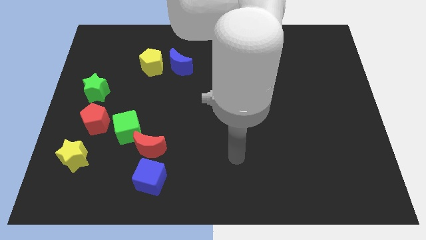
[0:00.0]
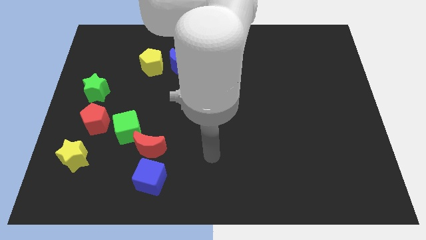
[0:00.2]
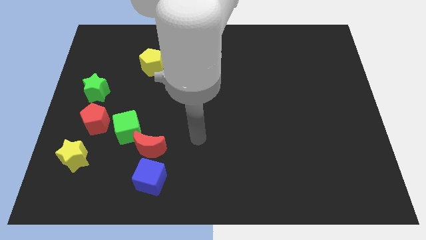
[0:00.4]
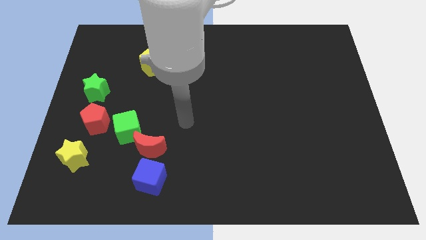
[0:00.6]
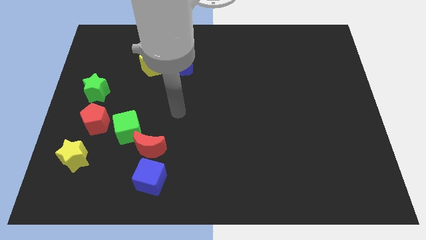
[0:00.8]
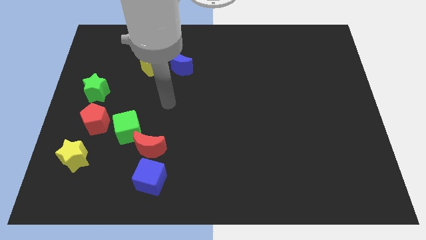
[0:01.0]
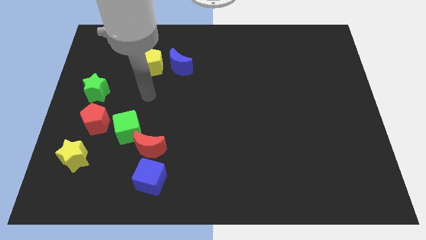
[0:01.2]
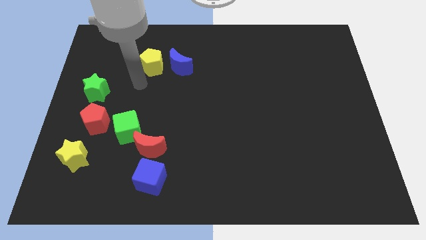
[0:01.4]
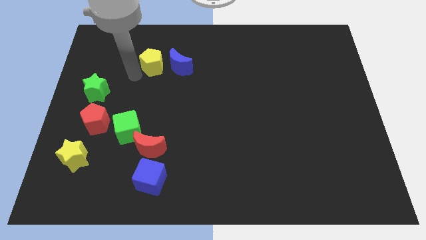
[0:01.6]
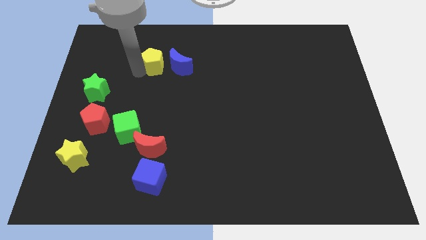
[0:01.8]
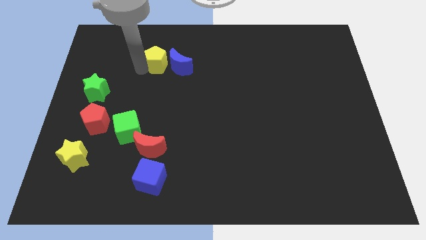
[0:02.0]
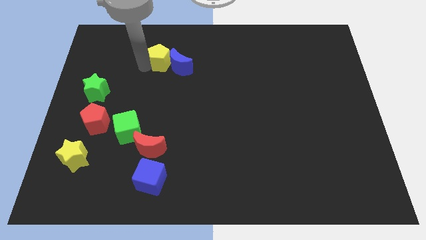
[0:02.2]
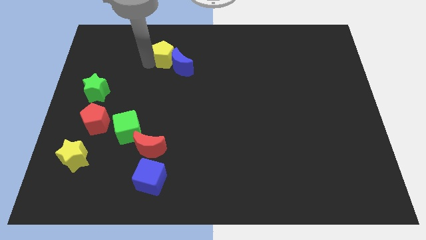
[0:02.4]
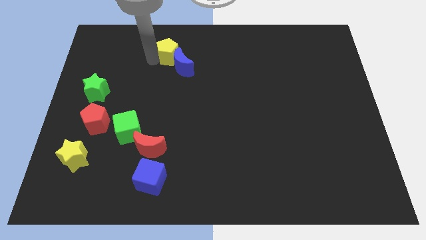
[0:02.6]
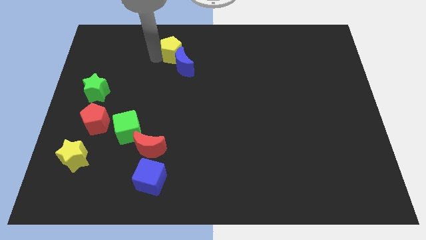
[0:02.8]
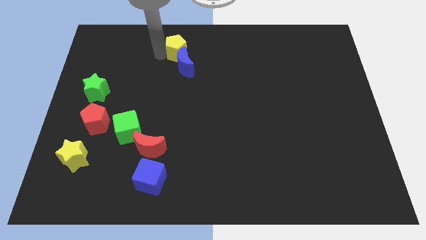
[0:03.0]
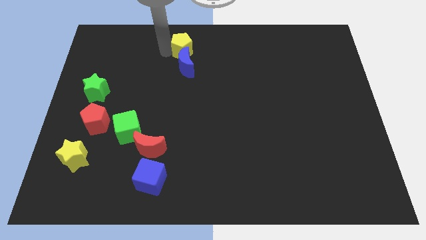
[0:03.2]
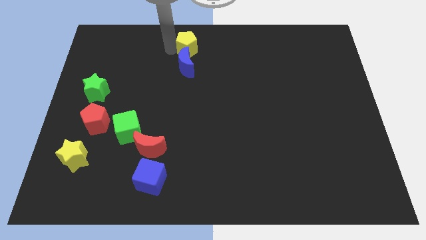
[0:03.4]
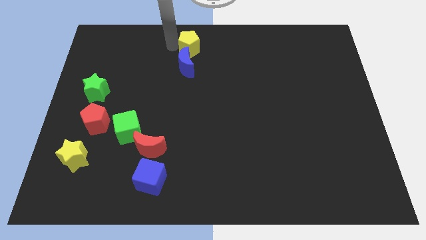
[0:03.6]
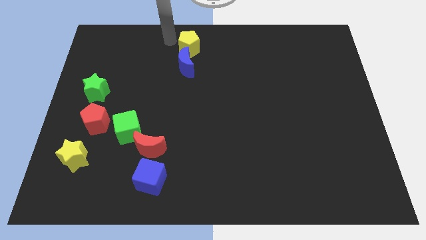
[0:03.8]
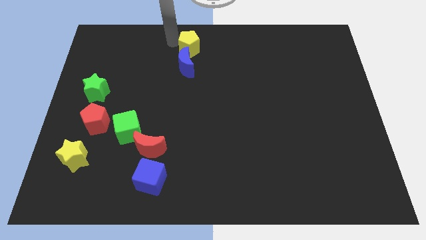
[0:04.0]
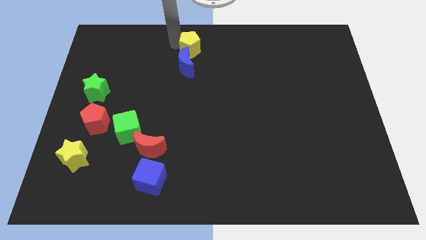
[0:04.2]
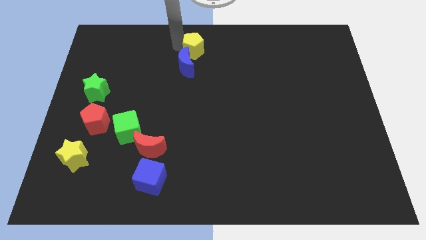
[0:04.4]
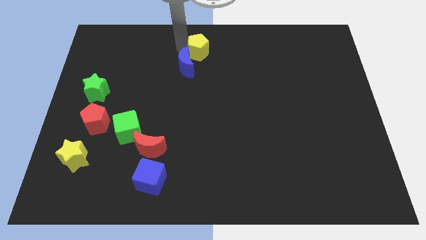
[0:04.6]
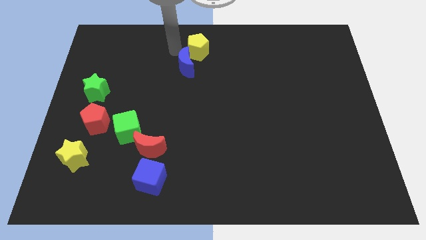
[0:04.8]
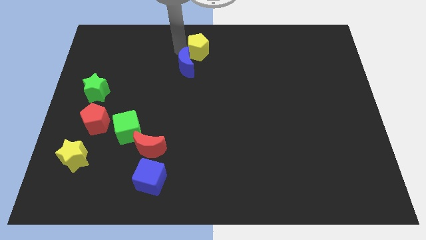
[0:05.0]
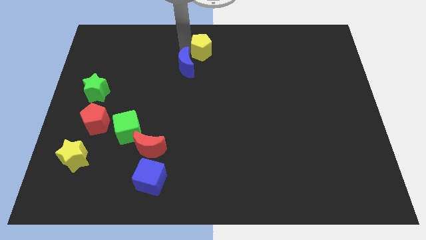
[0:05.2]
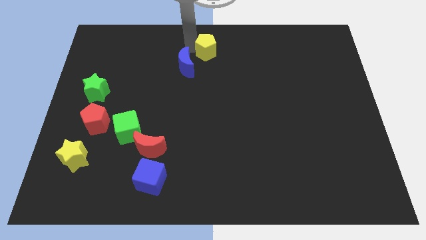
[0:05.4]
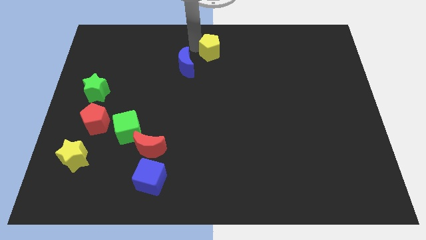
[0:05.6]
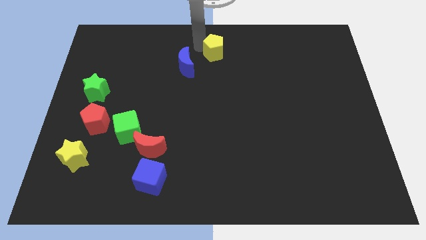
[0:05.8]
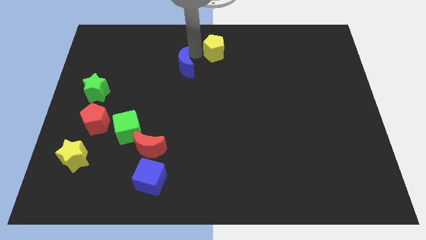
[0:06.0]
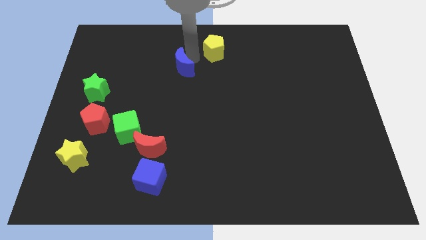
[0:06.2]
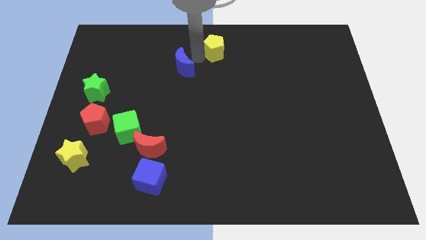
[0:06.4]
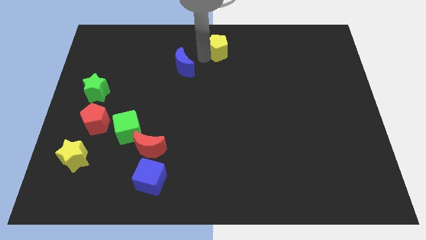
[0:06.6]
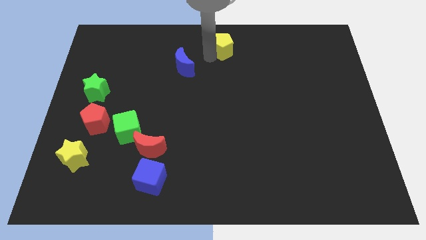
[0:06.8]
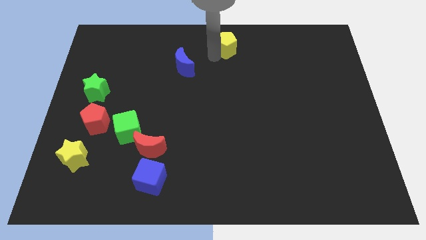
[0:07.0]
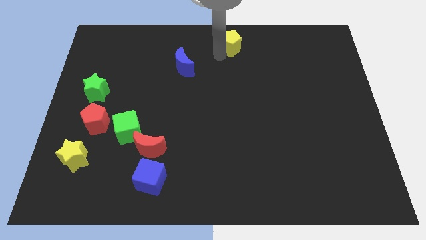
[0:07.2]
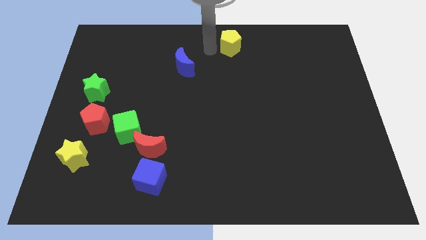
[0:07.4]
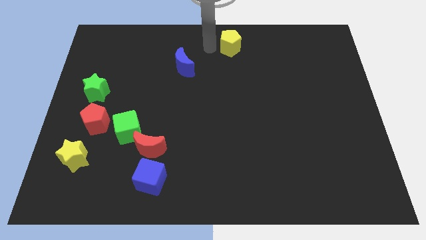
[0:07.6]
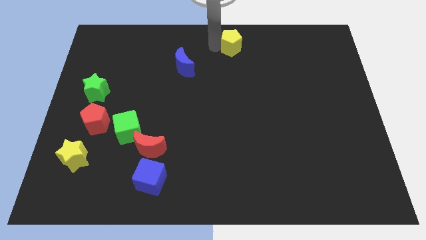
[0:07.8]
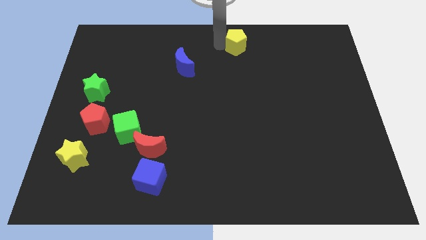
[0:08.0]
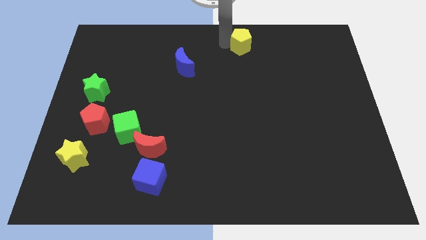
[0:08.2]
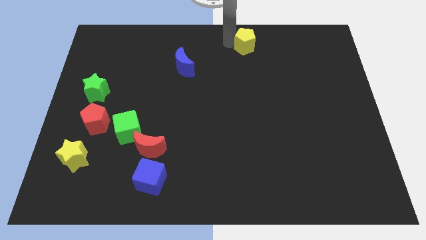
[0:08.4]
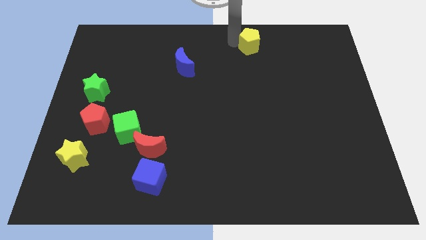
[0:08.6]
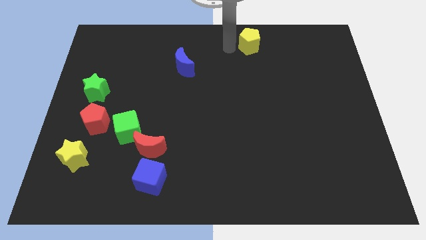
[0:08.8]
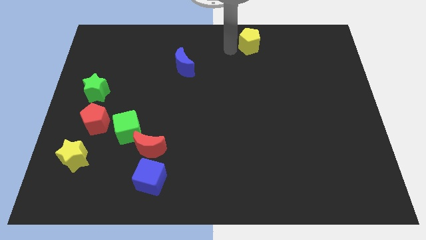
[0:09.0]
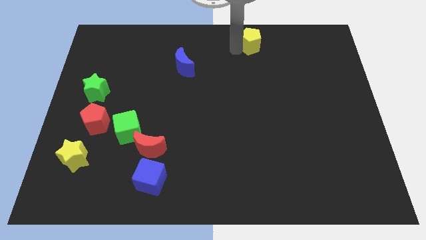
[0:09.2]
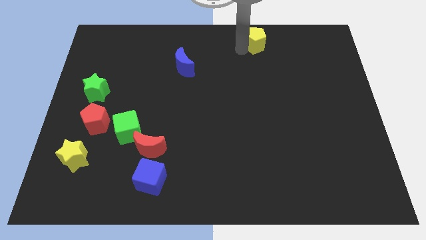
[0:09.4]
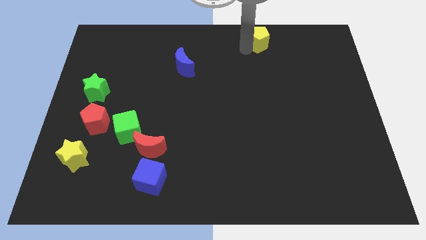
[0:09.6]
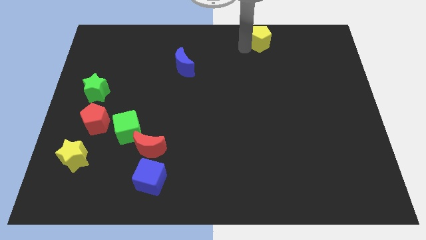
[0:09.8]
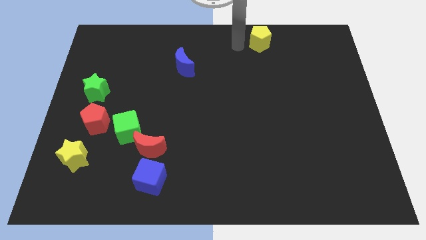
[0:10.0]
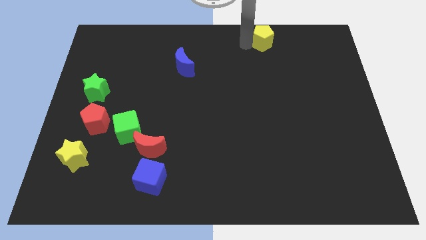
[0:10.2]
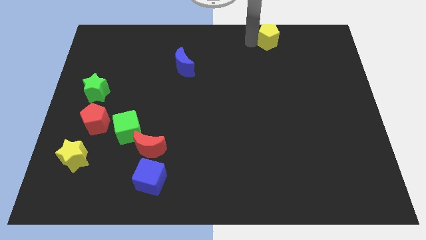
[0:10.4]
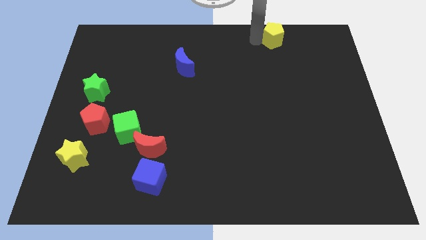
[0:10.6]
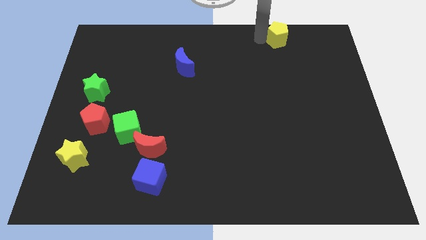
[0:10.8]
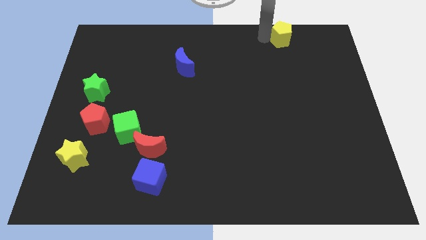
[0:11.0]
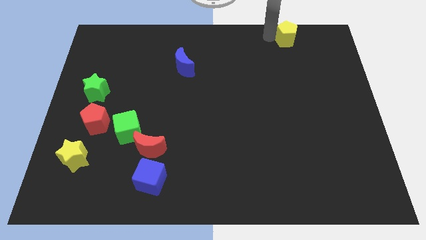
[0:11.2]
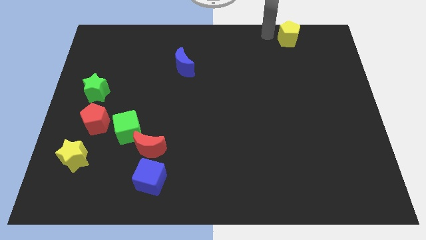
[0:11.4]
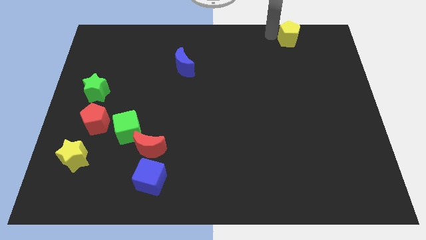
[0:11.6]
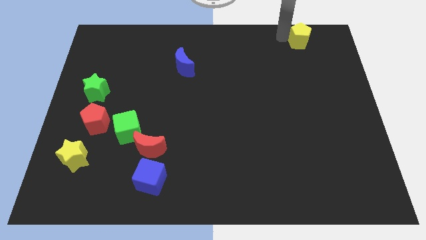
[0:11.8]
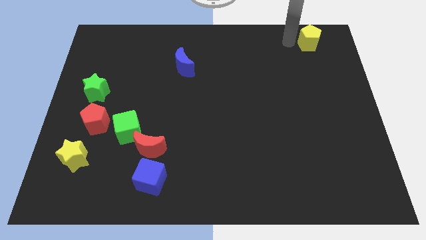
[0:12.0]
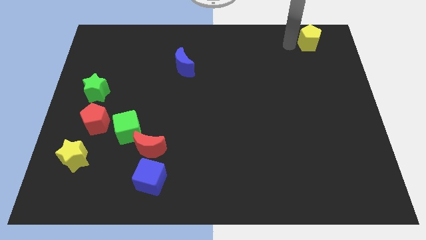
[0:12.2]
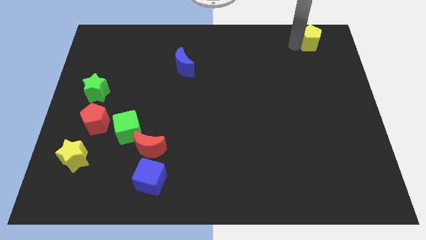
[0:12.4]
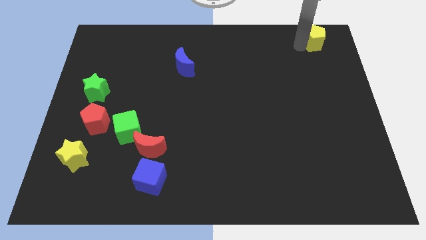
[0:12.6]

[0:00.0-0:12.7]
push the yellow pentagon to the upper right corner

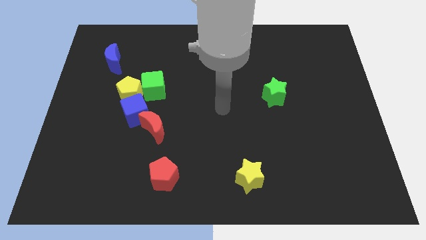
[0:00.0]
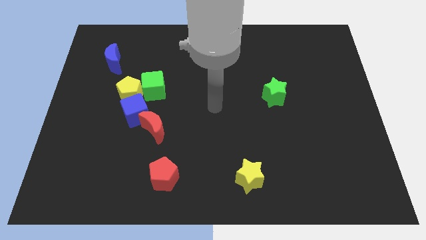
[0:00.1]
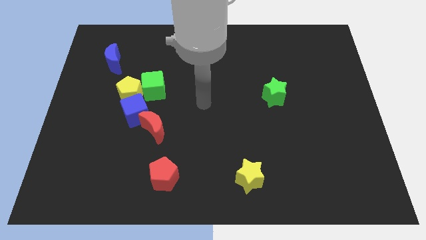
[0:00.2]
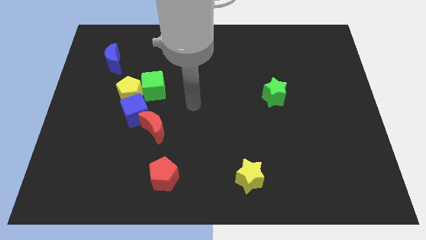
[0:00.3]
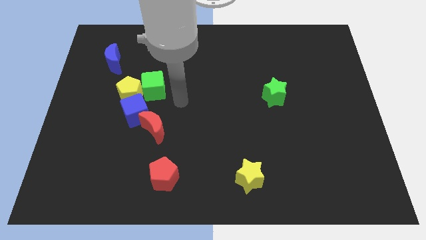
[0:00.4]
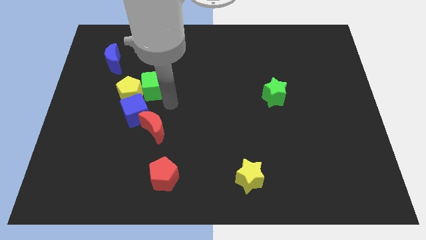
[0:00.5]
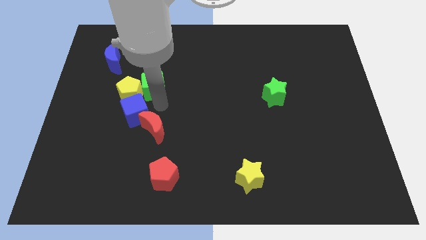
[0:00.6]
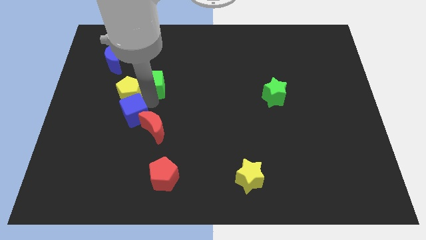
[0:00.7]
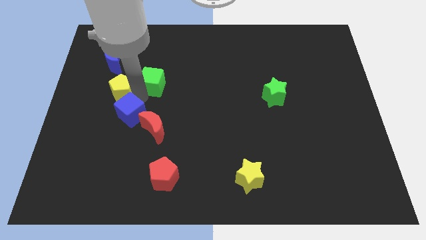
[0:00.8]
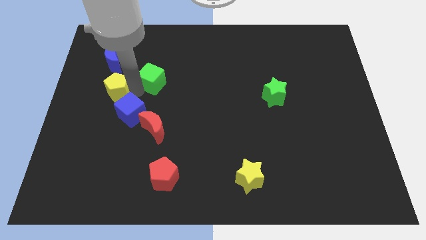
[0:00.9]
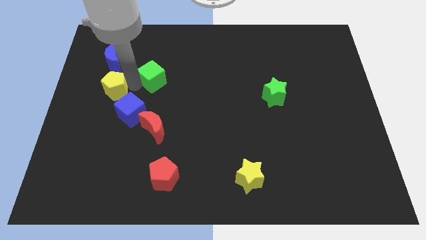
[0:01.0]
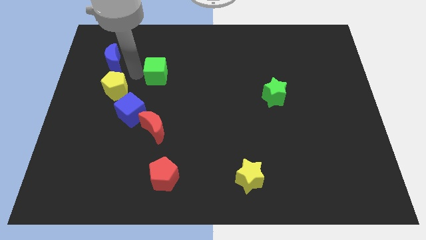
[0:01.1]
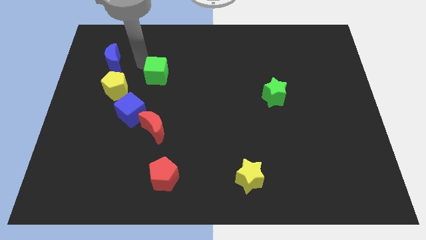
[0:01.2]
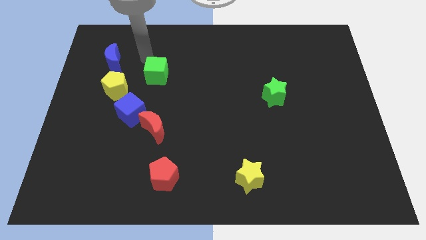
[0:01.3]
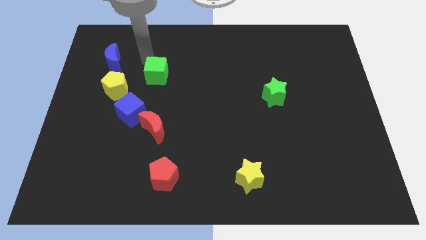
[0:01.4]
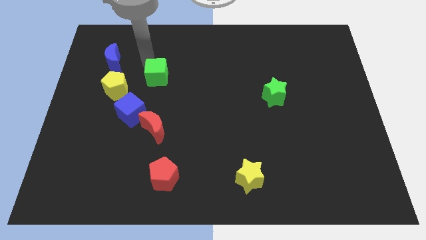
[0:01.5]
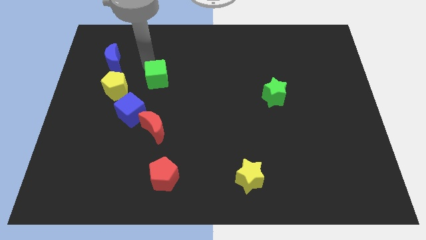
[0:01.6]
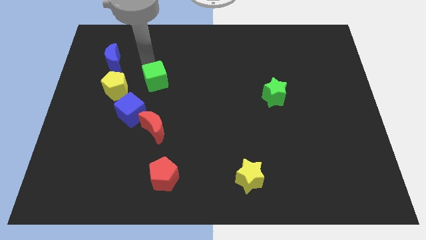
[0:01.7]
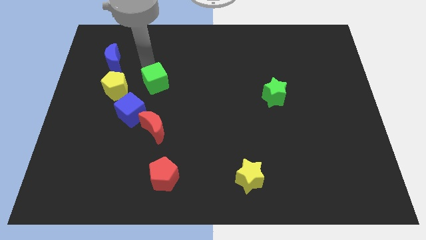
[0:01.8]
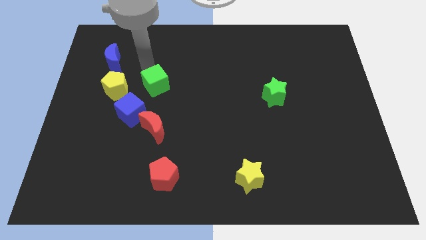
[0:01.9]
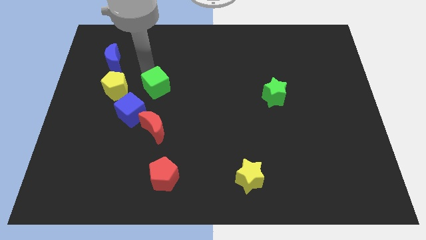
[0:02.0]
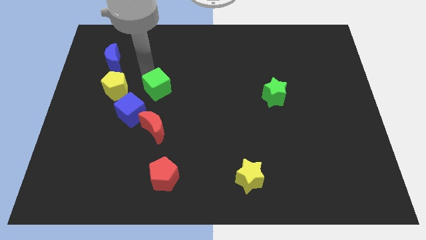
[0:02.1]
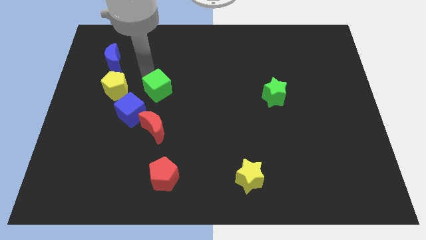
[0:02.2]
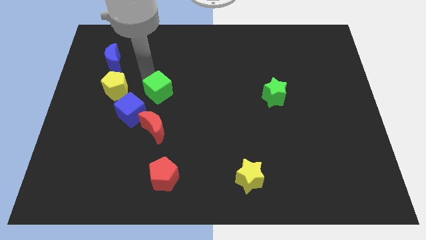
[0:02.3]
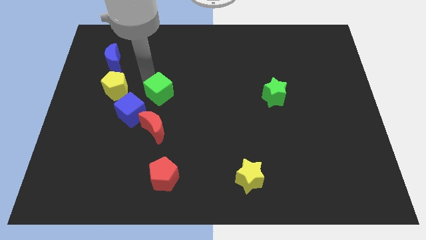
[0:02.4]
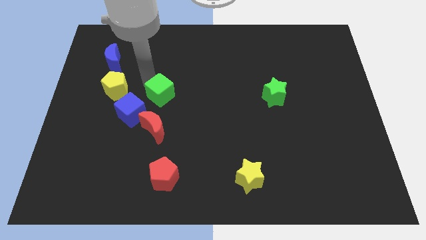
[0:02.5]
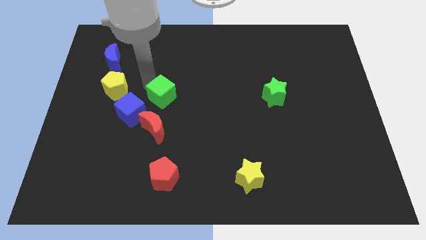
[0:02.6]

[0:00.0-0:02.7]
put the green cube to the center of the board
